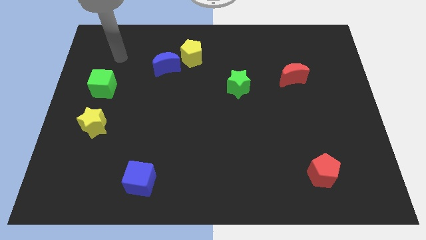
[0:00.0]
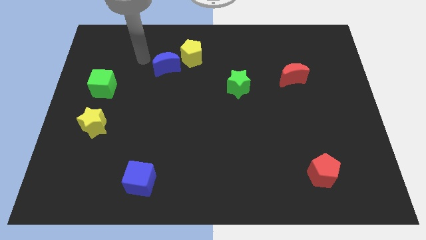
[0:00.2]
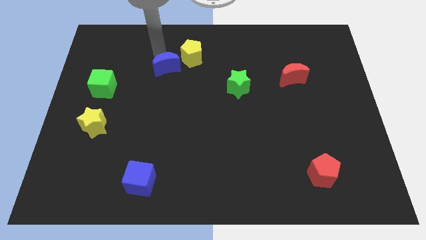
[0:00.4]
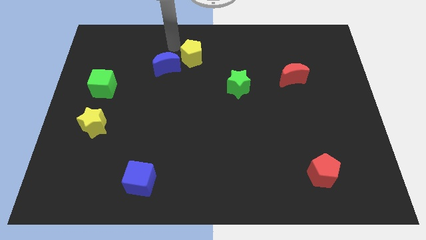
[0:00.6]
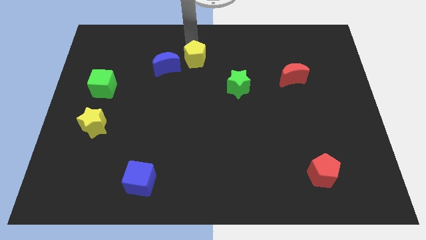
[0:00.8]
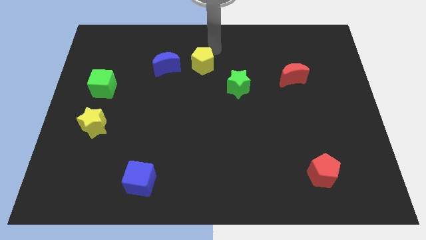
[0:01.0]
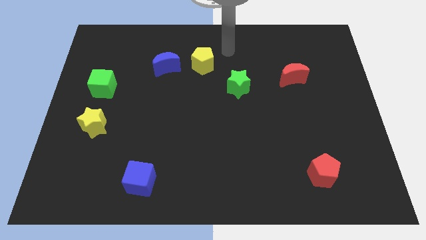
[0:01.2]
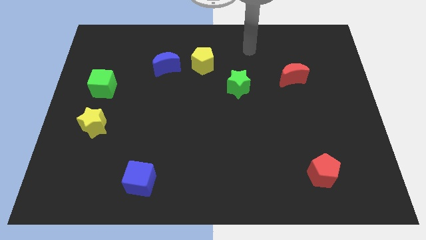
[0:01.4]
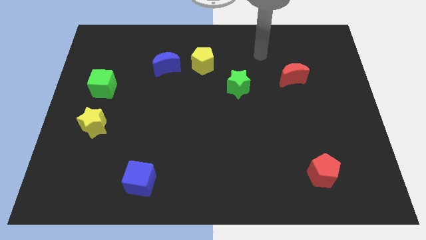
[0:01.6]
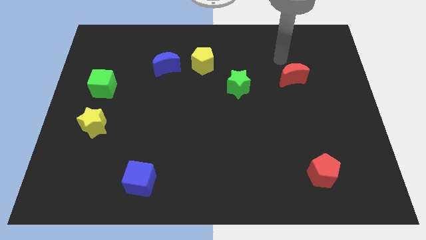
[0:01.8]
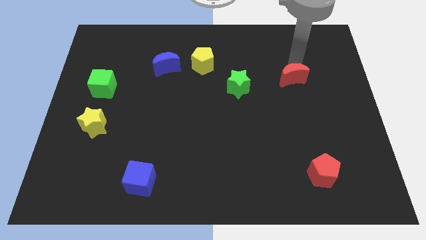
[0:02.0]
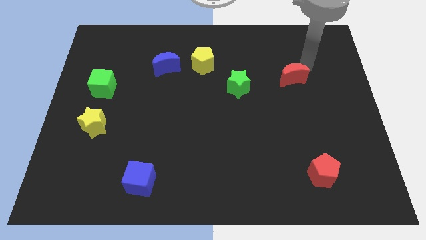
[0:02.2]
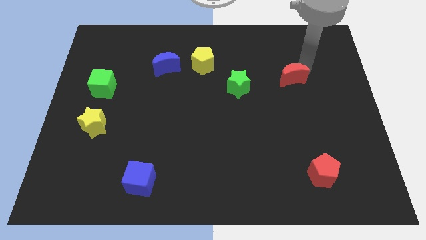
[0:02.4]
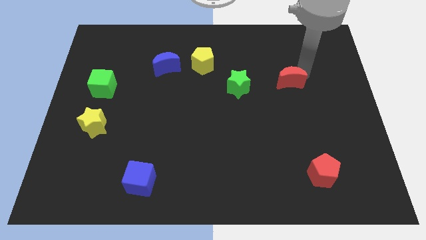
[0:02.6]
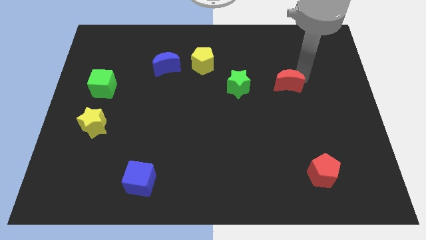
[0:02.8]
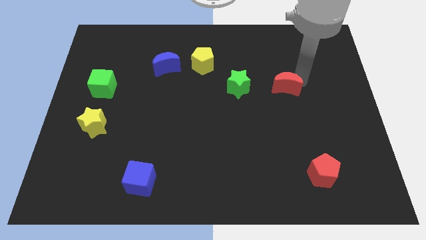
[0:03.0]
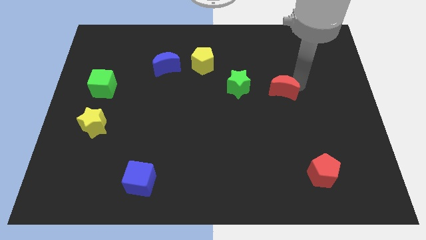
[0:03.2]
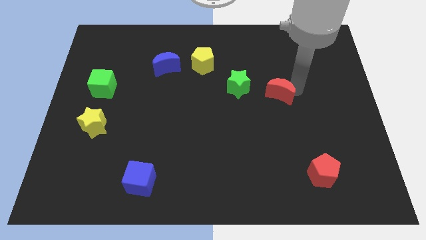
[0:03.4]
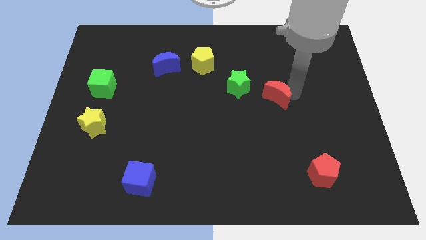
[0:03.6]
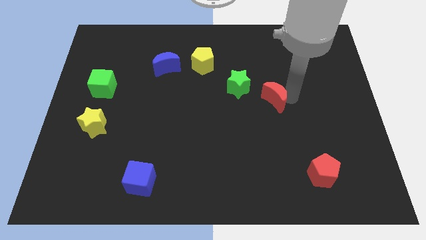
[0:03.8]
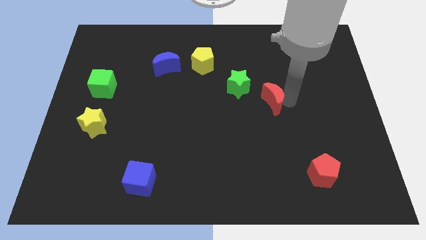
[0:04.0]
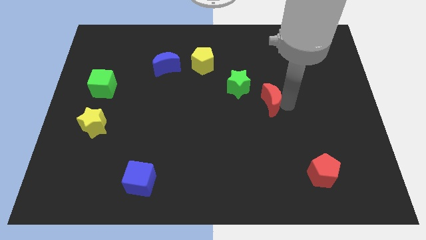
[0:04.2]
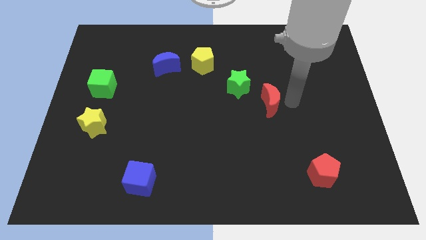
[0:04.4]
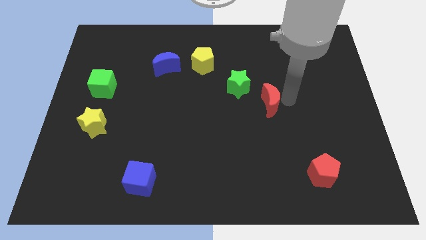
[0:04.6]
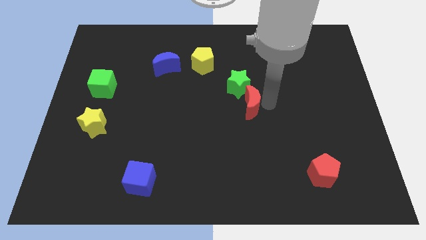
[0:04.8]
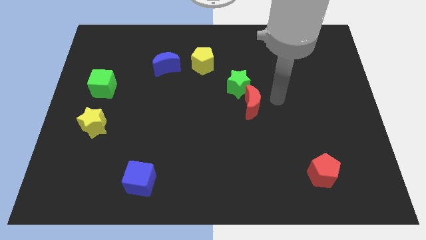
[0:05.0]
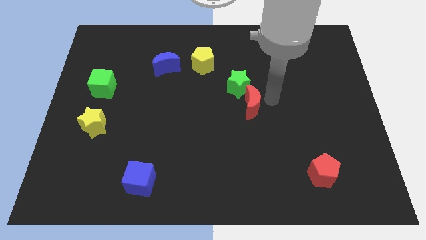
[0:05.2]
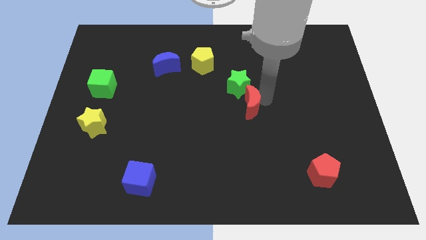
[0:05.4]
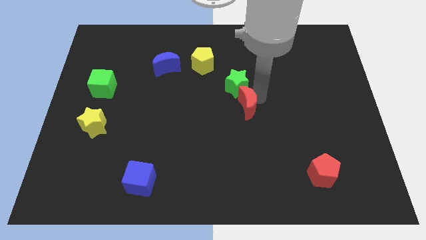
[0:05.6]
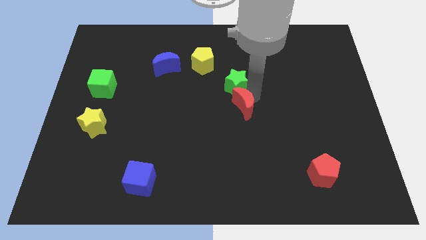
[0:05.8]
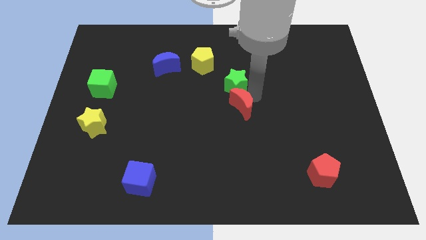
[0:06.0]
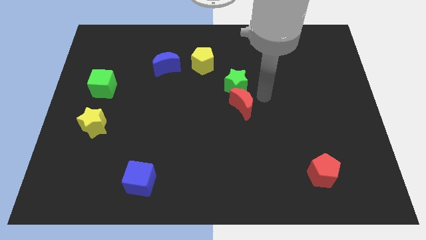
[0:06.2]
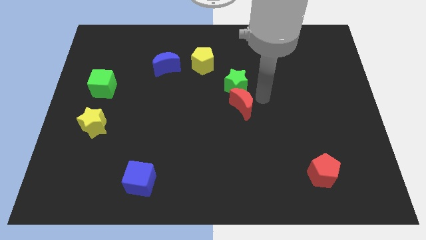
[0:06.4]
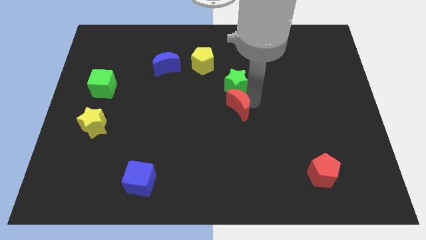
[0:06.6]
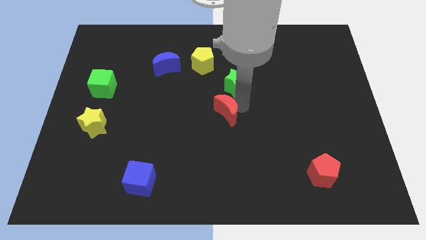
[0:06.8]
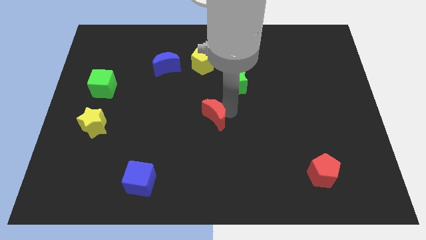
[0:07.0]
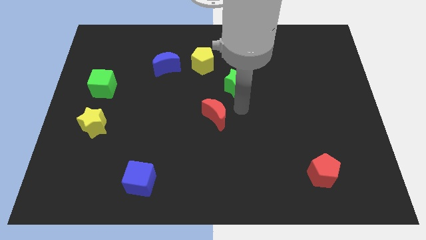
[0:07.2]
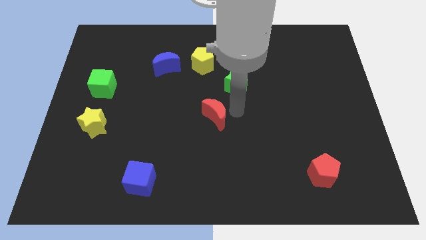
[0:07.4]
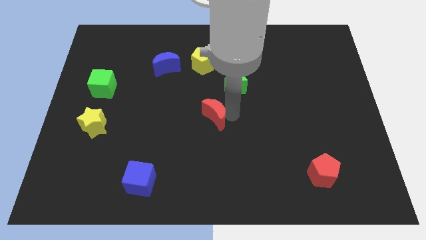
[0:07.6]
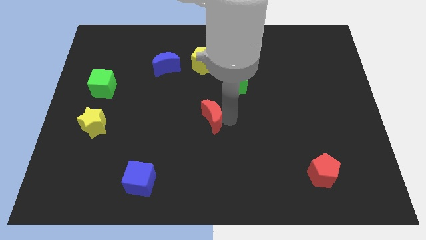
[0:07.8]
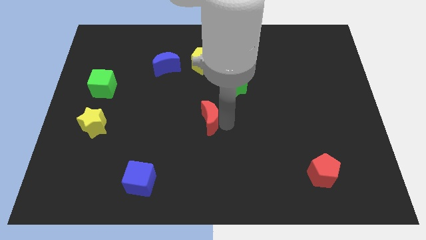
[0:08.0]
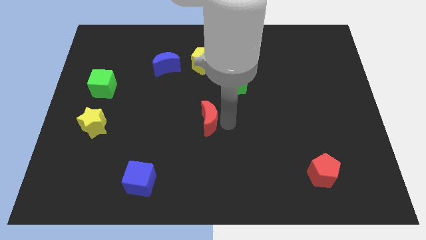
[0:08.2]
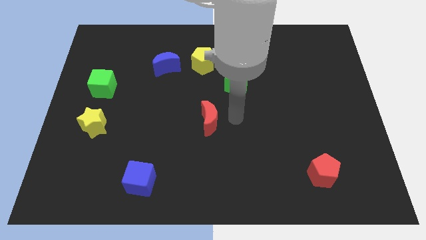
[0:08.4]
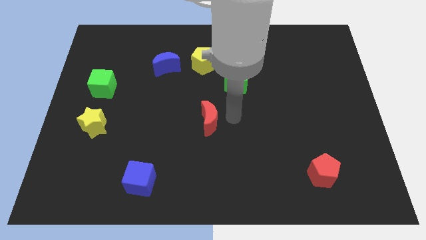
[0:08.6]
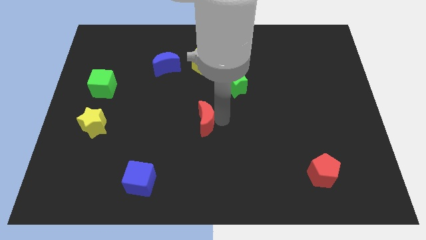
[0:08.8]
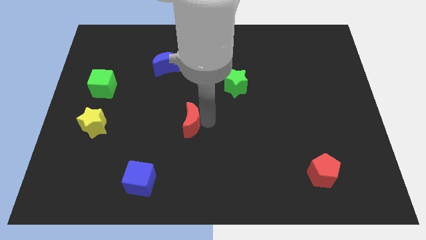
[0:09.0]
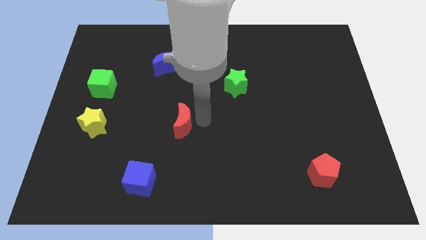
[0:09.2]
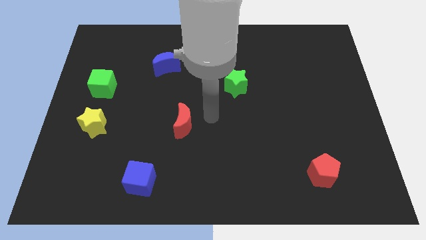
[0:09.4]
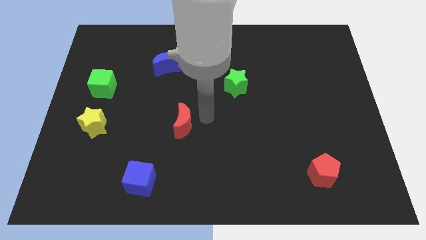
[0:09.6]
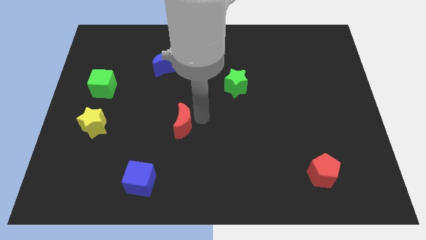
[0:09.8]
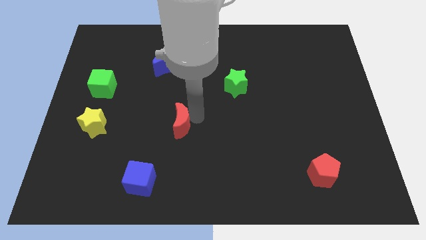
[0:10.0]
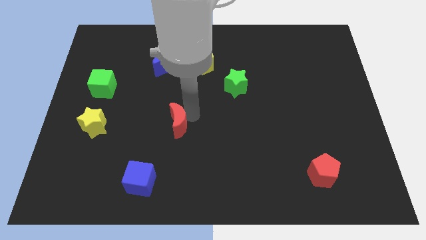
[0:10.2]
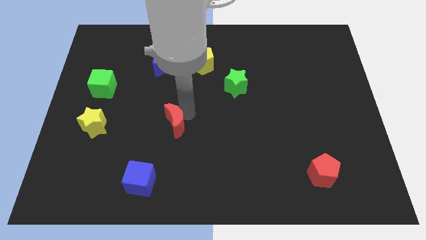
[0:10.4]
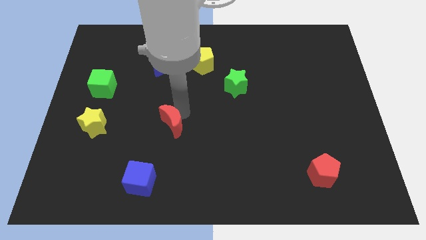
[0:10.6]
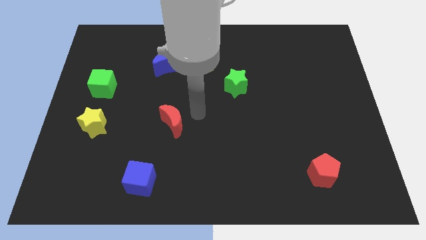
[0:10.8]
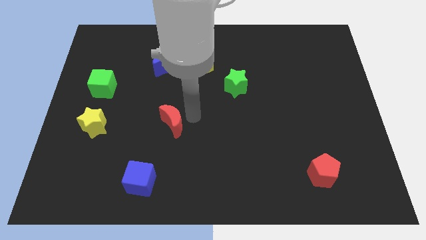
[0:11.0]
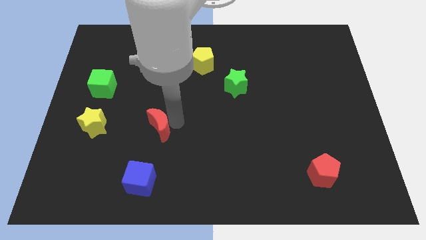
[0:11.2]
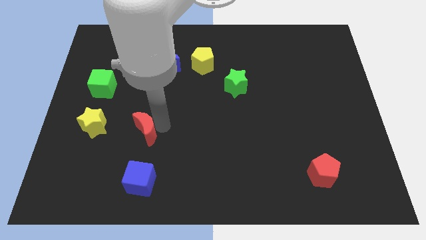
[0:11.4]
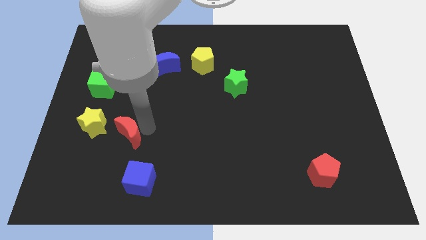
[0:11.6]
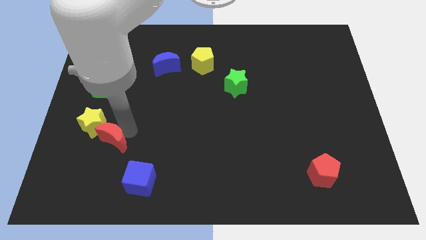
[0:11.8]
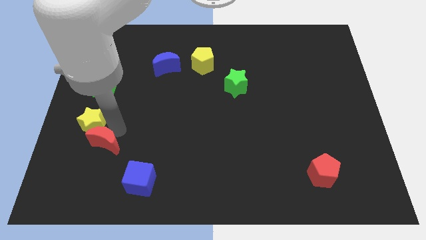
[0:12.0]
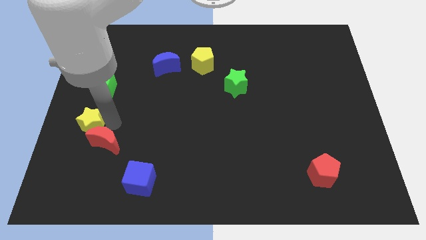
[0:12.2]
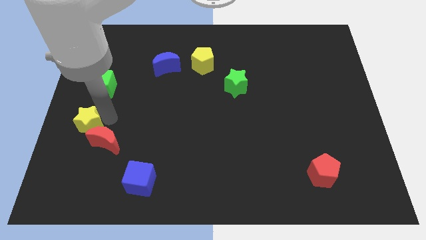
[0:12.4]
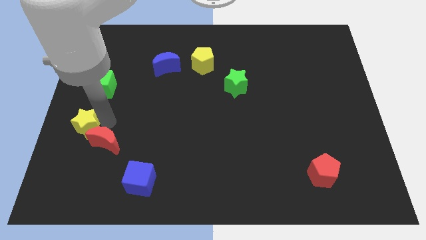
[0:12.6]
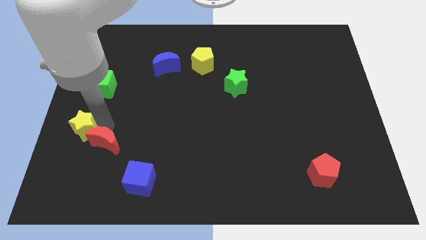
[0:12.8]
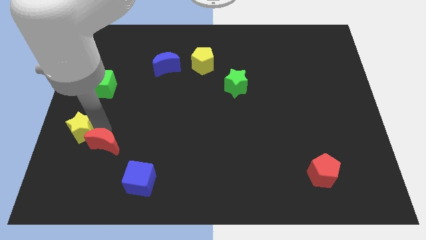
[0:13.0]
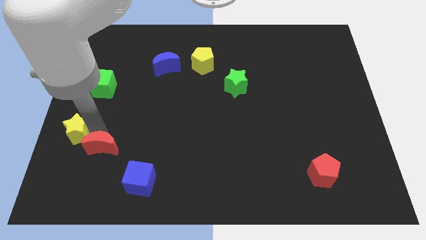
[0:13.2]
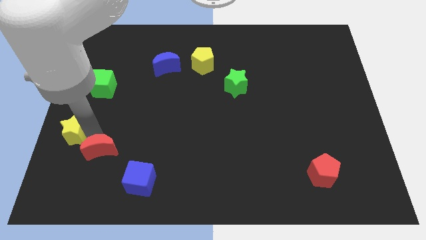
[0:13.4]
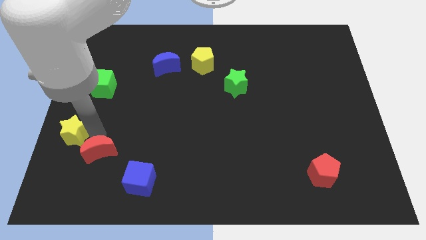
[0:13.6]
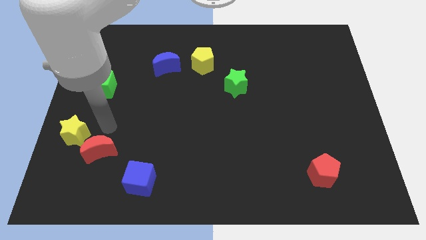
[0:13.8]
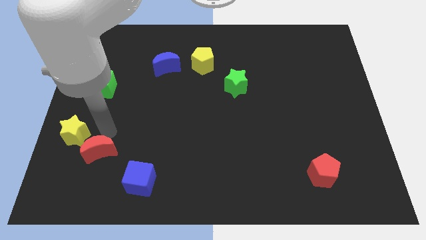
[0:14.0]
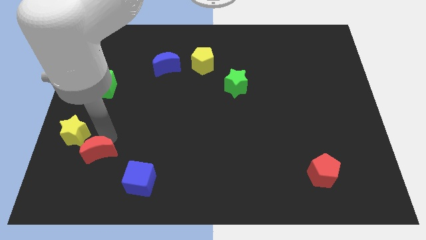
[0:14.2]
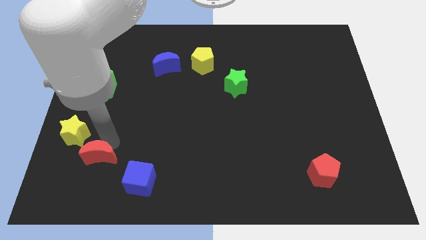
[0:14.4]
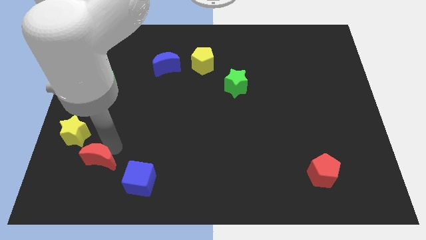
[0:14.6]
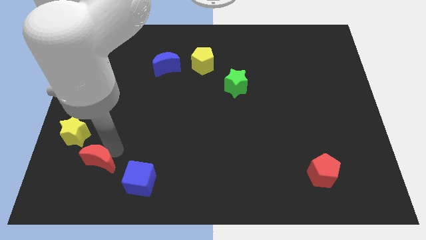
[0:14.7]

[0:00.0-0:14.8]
move the red moon to the left of the blue cube

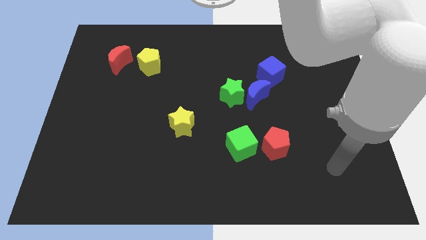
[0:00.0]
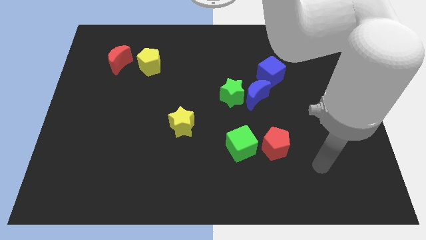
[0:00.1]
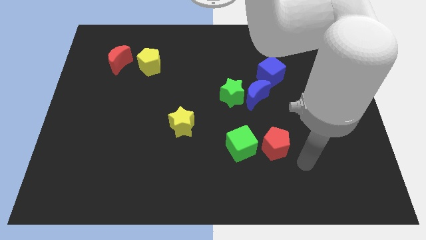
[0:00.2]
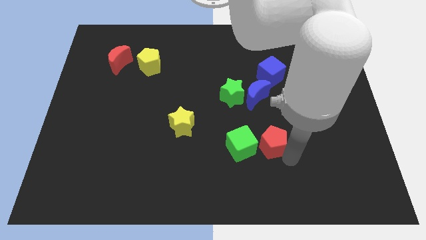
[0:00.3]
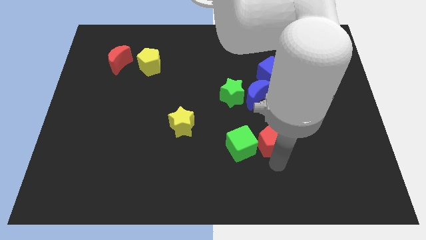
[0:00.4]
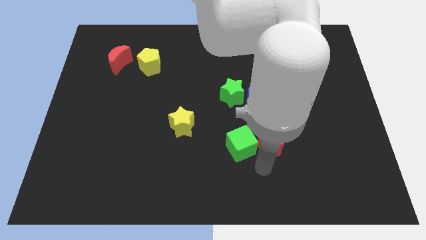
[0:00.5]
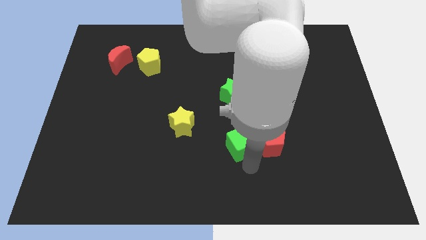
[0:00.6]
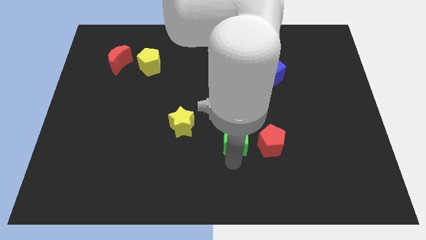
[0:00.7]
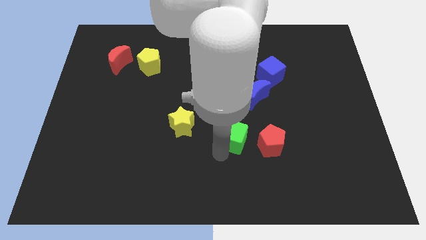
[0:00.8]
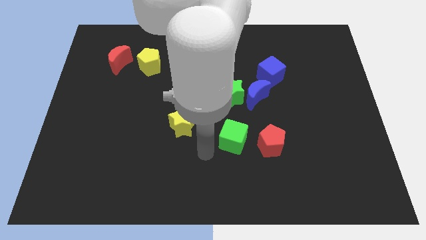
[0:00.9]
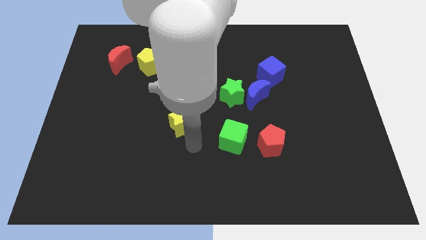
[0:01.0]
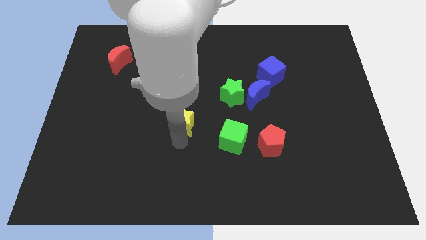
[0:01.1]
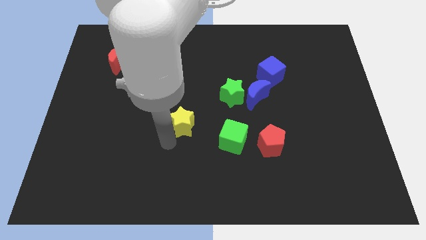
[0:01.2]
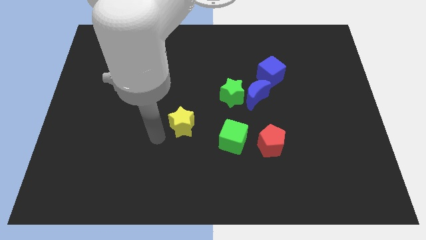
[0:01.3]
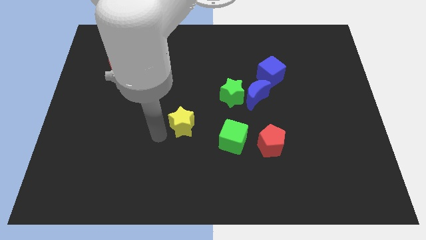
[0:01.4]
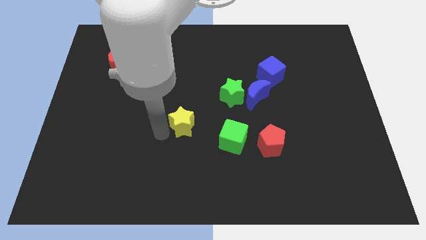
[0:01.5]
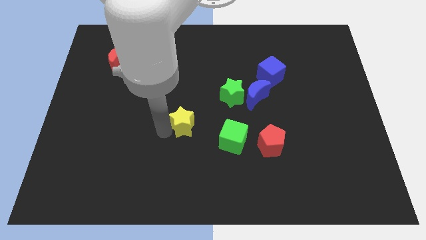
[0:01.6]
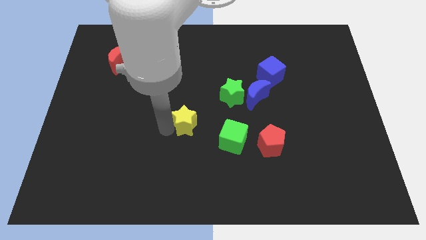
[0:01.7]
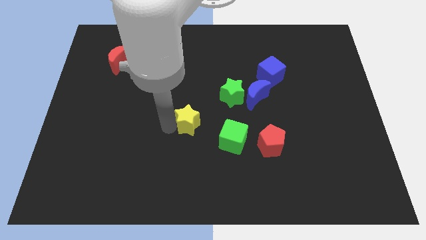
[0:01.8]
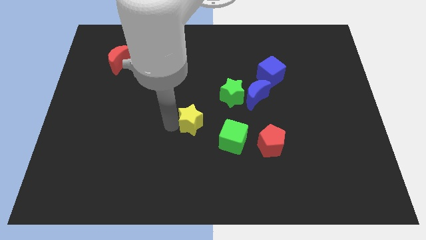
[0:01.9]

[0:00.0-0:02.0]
slide the yellow star to the bottom left side of the green star
